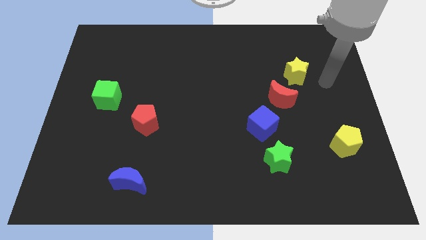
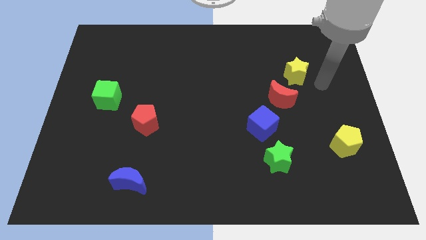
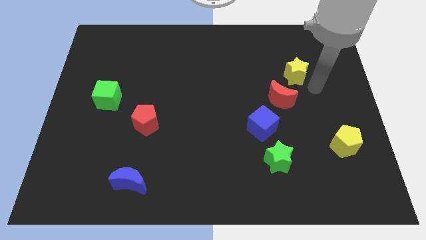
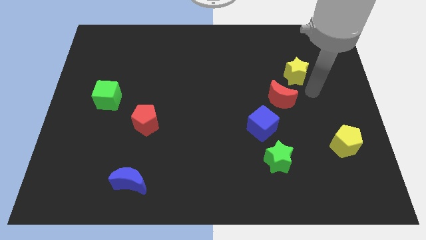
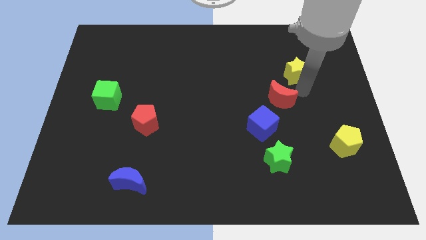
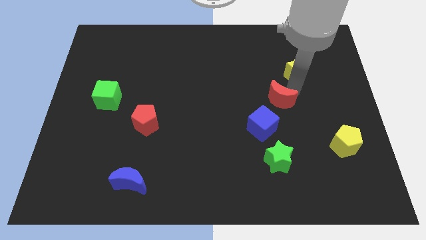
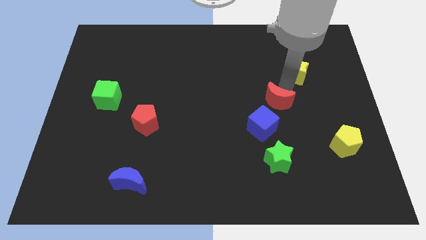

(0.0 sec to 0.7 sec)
move the yellow star away from the red moon

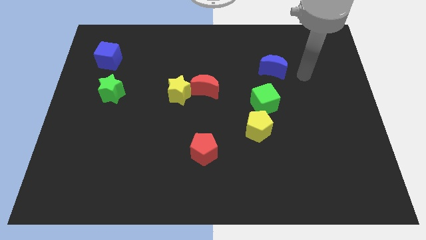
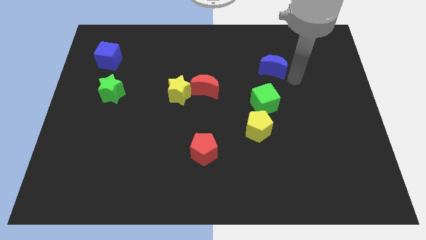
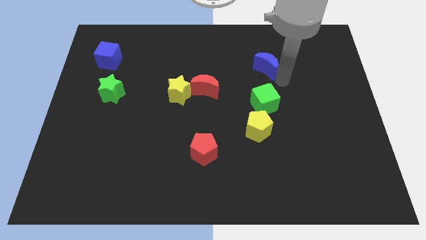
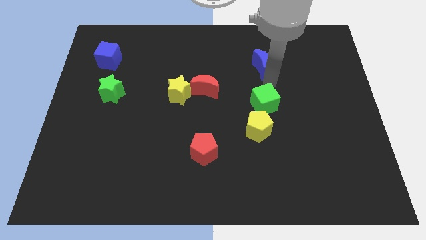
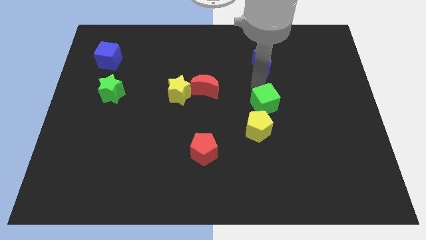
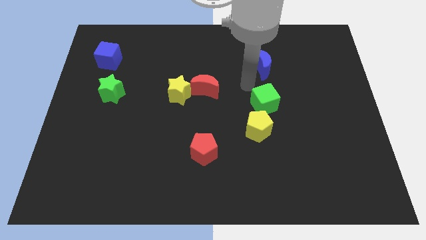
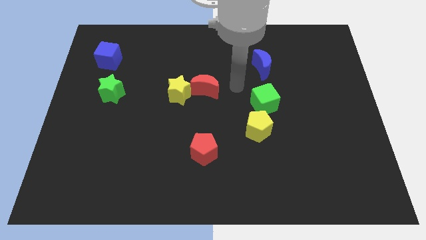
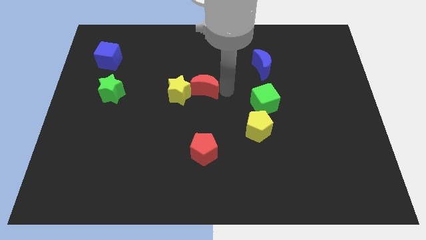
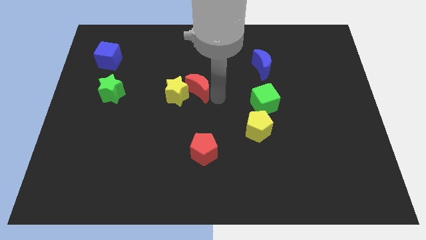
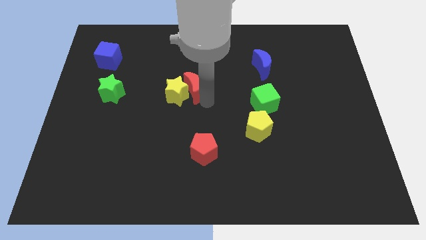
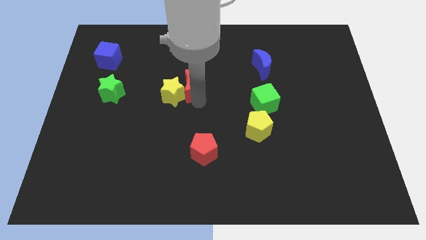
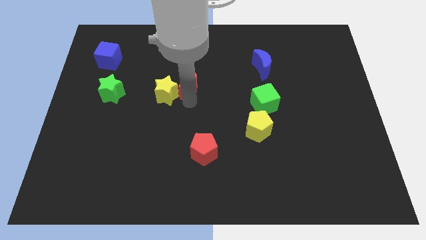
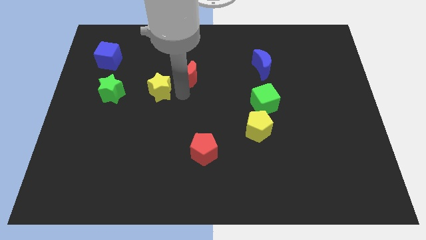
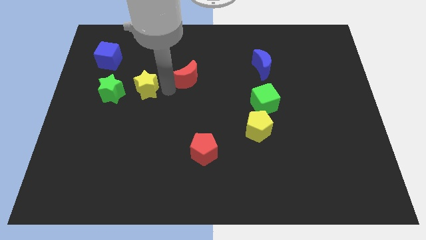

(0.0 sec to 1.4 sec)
separate the red moon from the yellow star

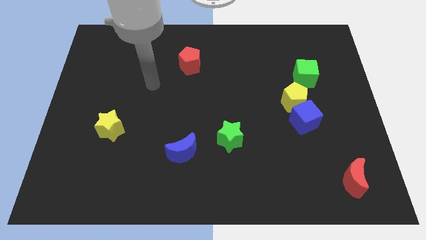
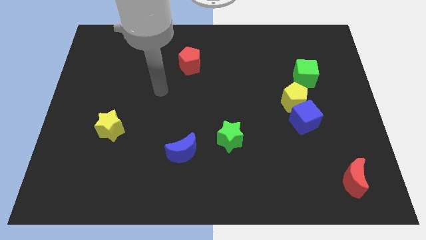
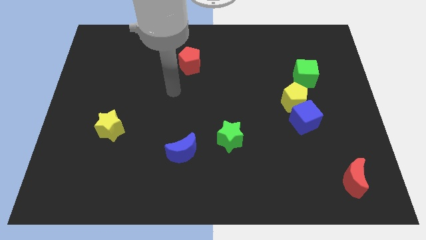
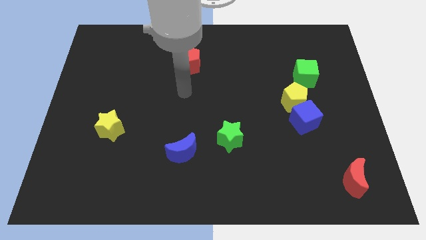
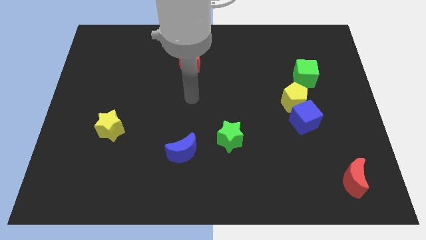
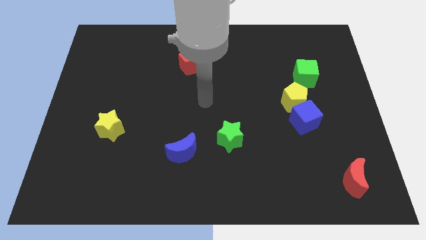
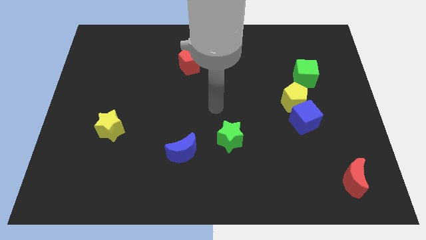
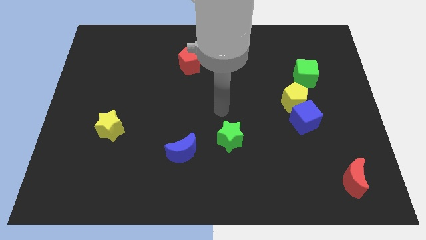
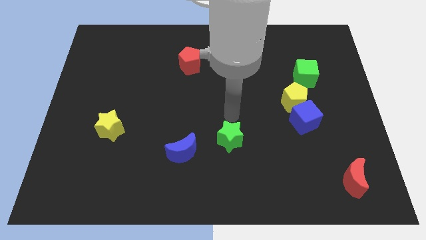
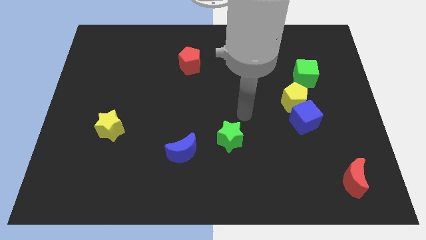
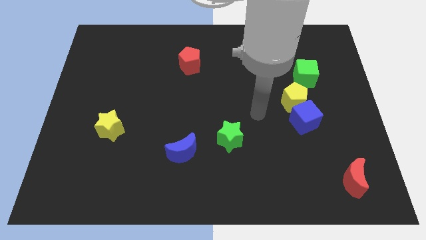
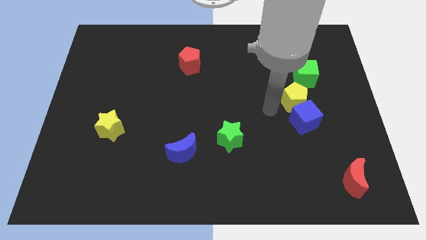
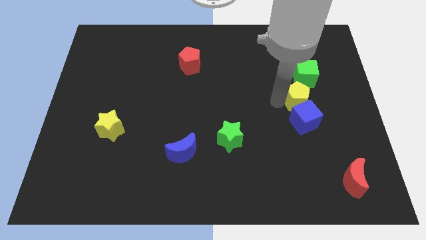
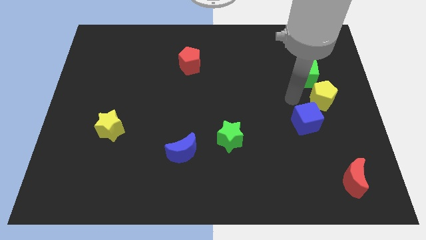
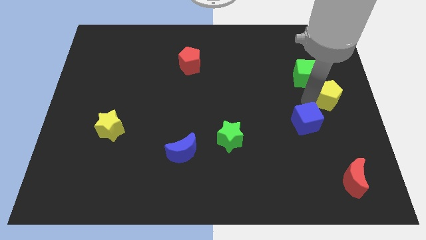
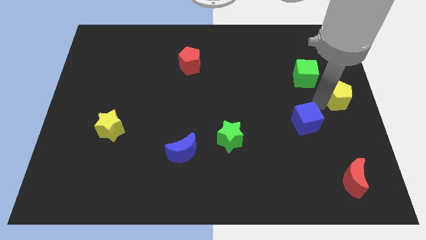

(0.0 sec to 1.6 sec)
pull the blue cube apart from the yellow pentagon

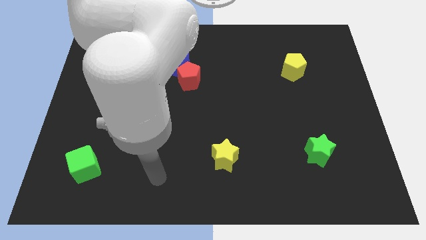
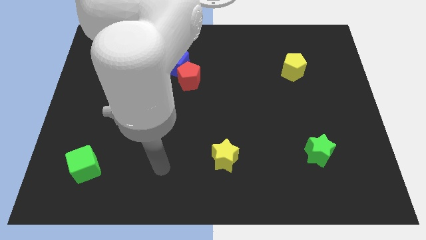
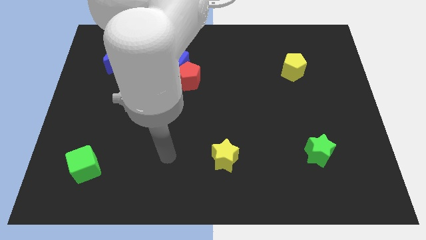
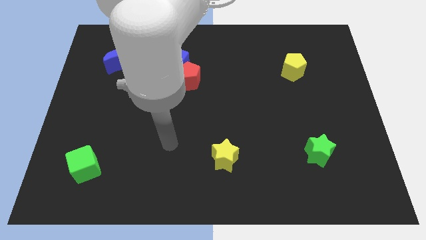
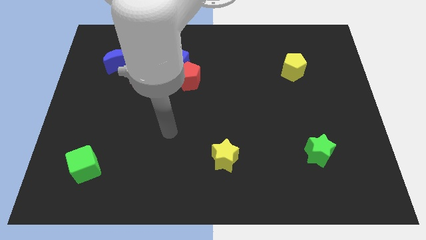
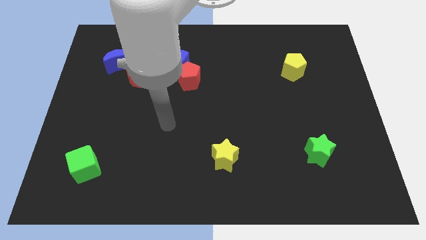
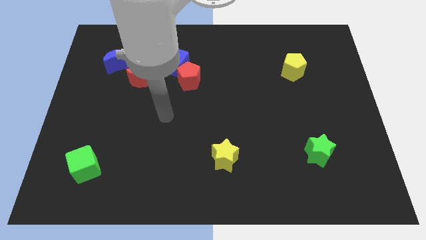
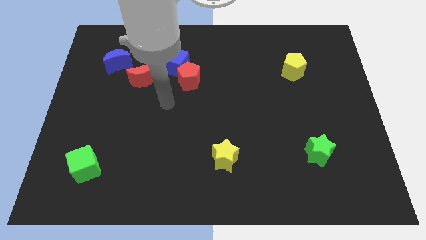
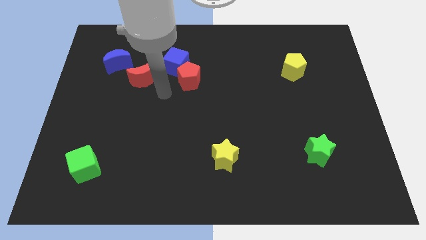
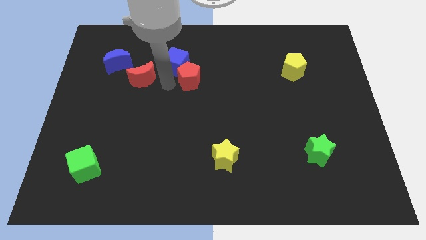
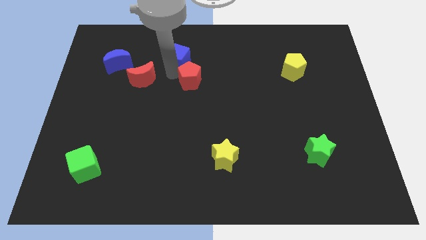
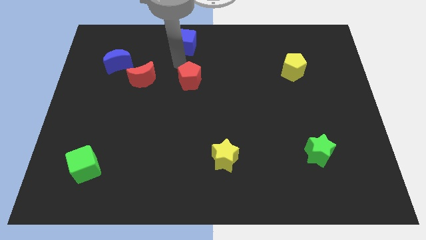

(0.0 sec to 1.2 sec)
move the red pentagon away from the blue cube

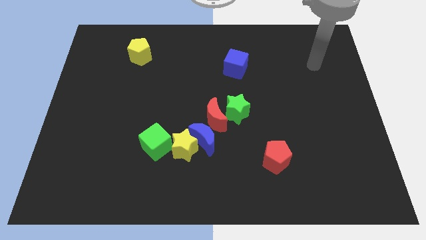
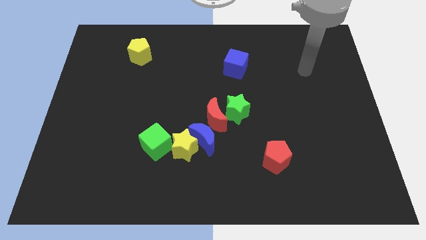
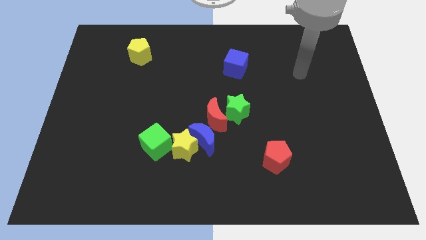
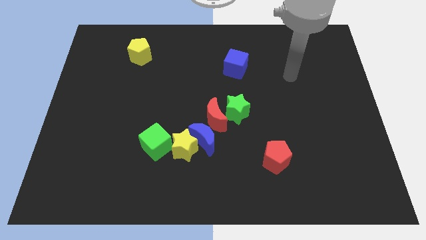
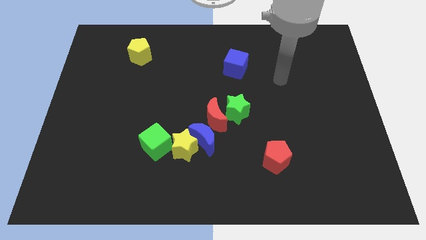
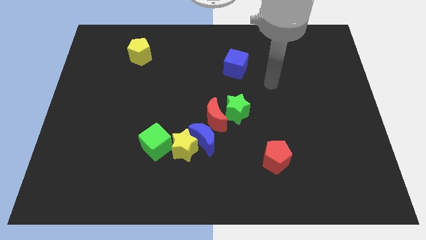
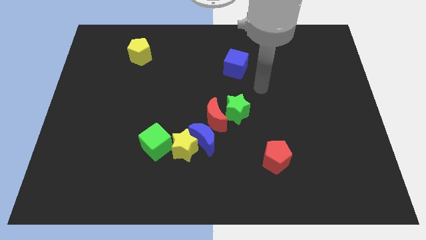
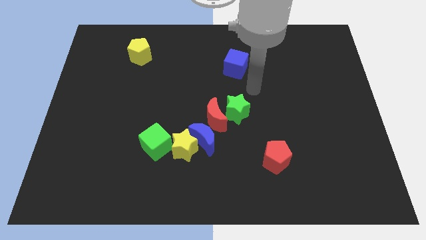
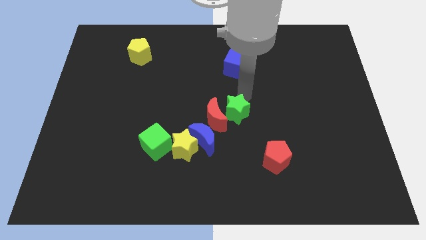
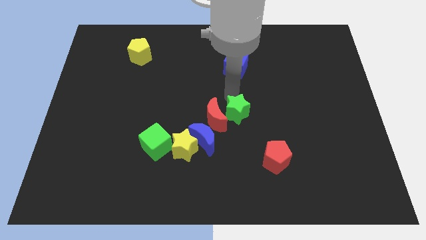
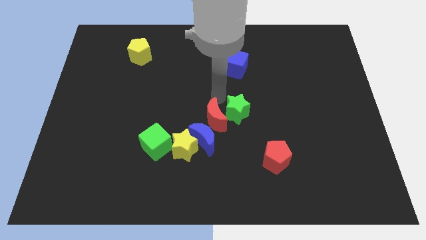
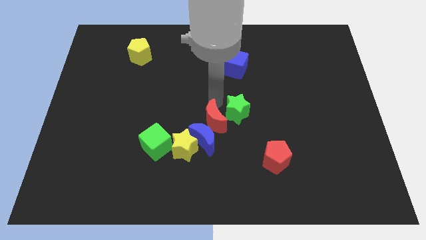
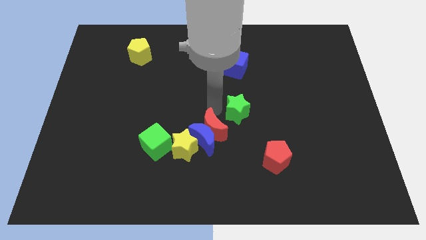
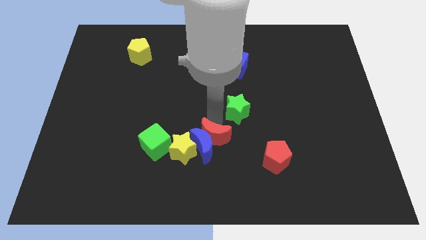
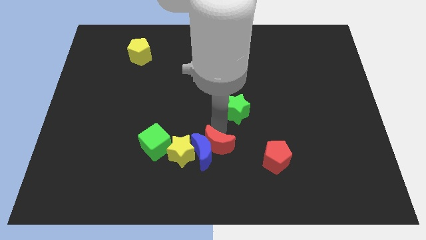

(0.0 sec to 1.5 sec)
move the green star away from the red moon

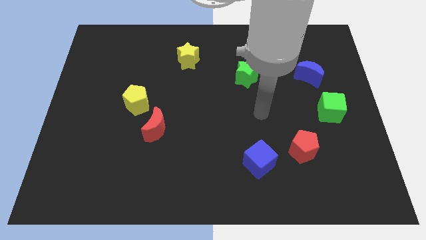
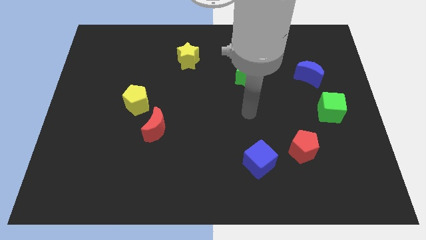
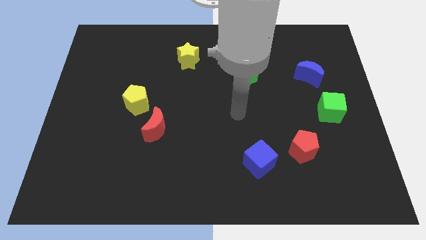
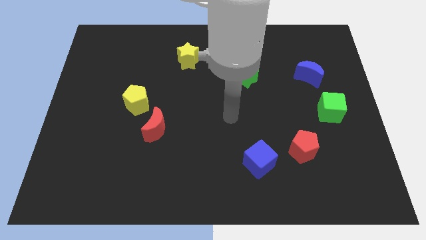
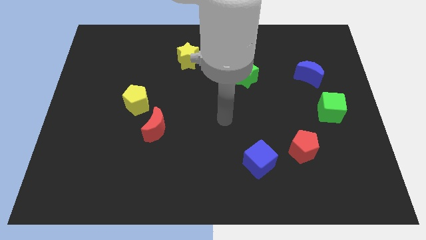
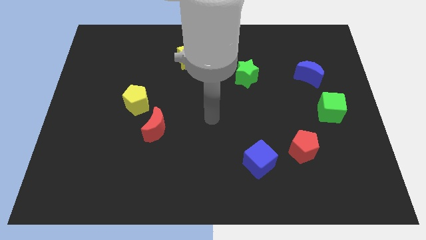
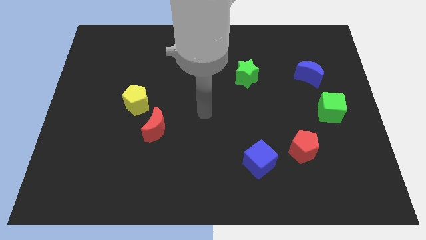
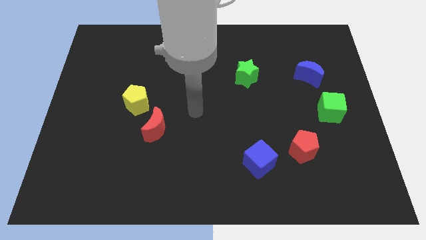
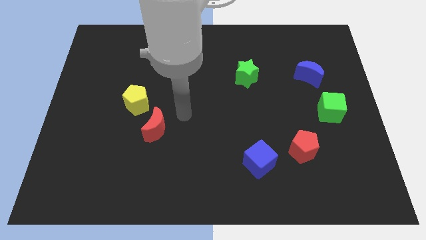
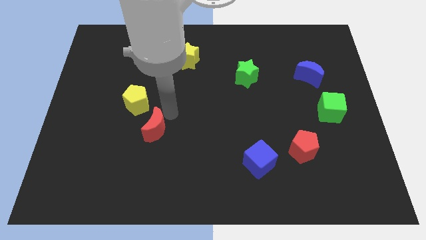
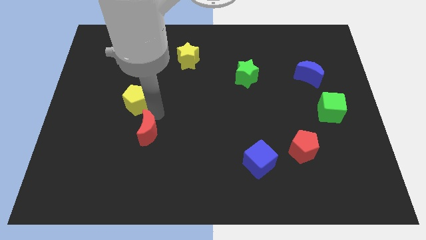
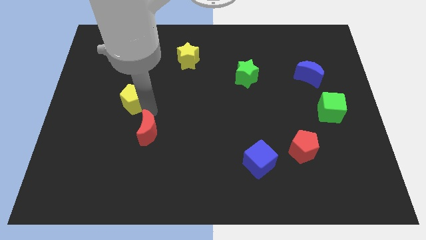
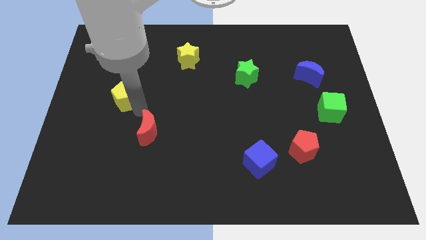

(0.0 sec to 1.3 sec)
pull the red moon apart from the yellow pentagon

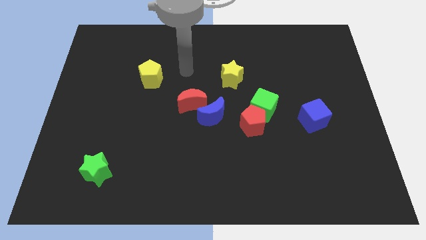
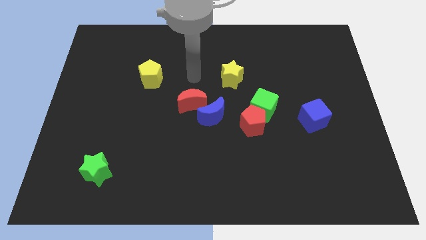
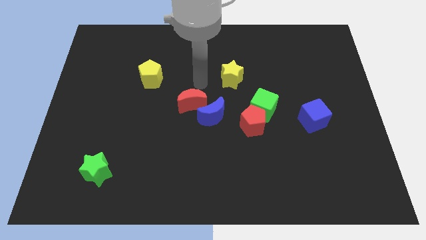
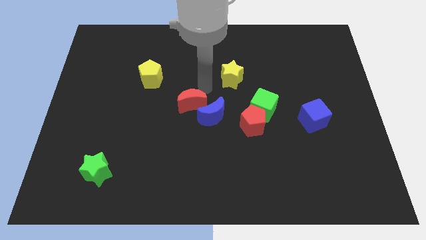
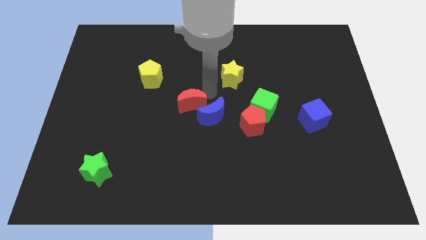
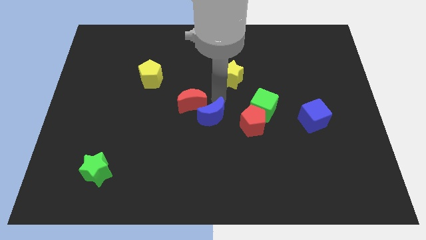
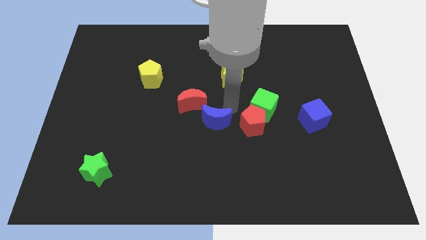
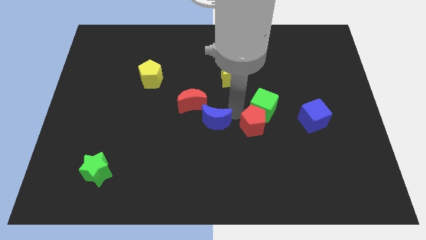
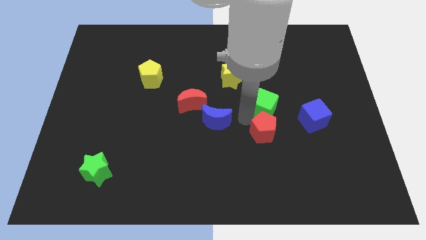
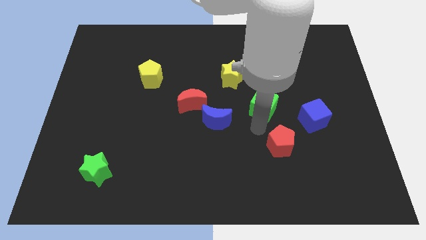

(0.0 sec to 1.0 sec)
move the green cube away from the red pentagon

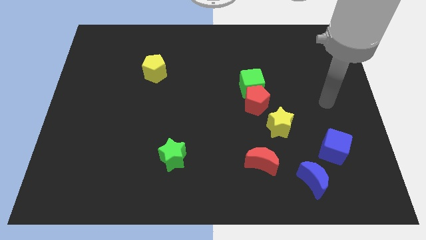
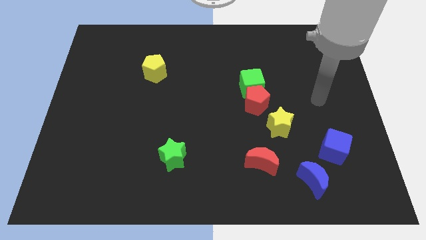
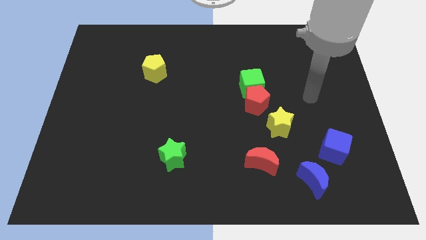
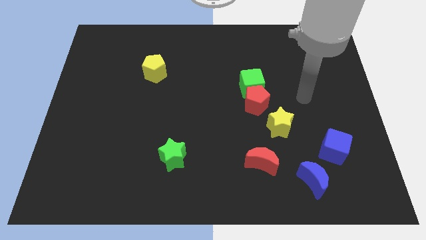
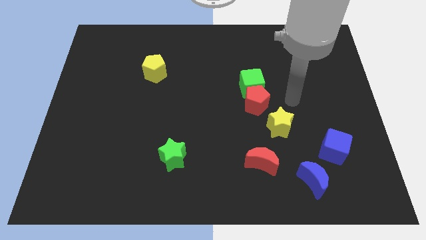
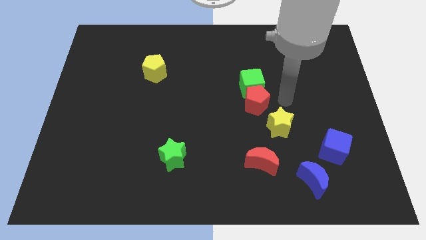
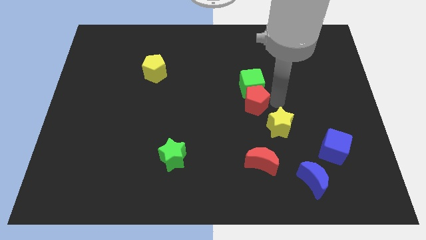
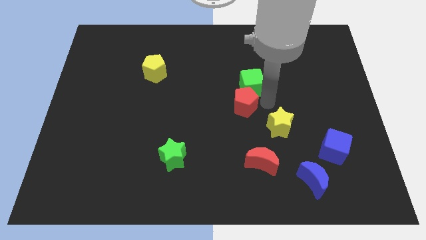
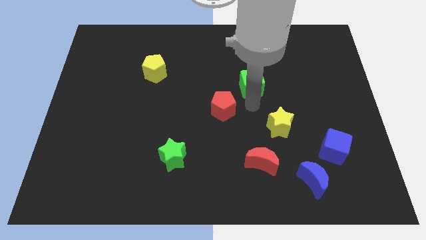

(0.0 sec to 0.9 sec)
separate the green cube from the red pentagon
